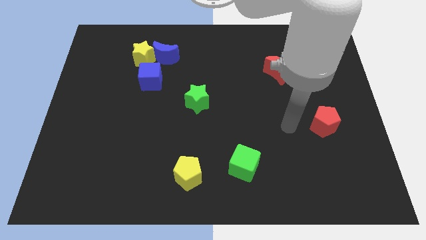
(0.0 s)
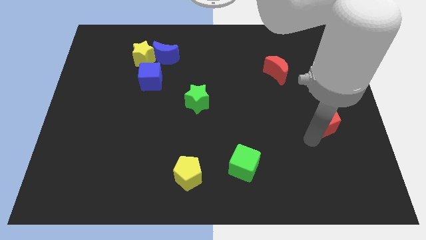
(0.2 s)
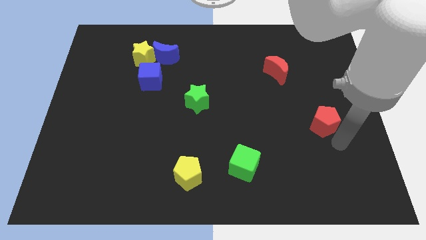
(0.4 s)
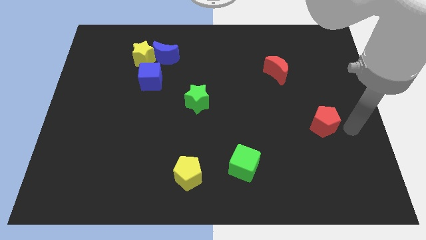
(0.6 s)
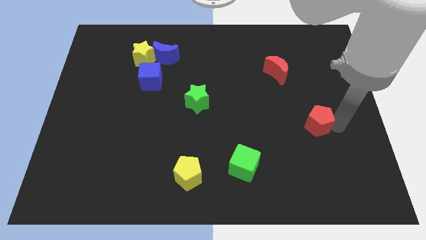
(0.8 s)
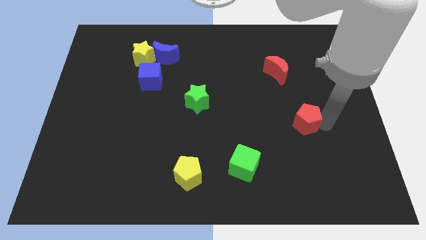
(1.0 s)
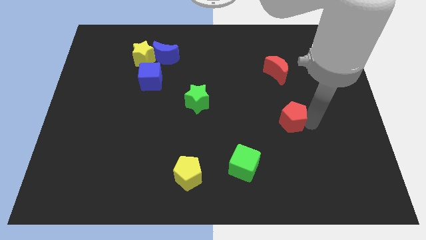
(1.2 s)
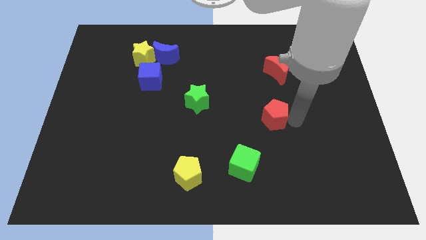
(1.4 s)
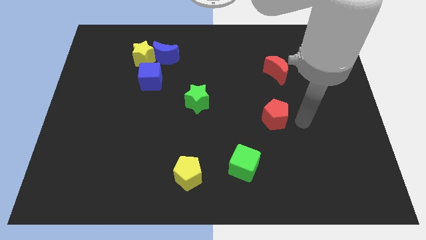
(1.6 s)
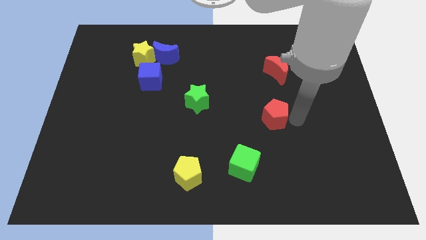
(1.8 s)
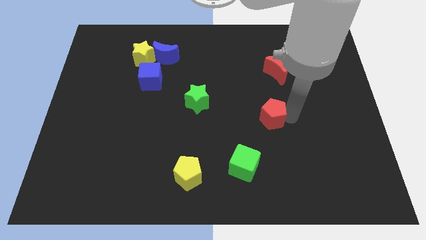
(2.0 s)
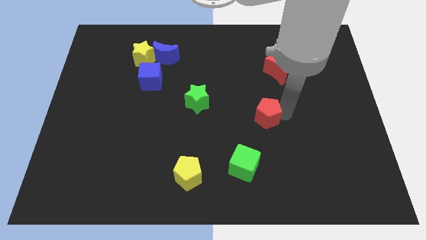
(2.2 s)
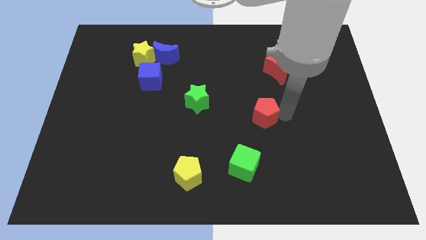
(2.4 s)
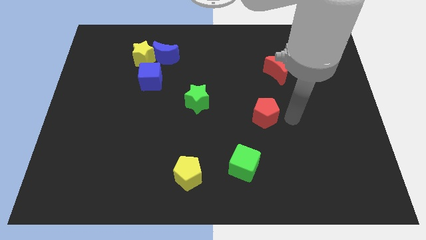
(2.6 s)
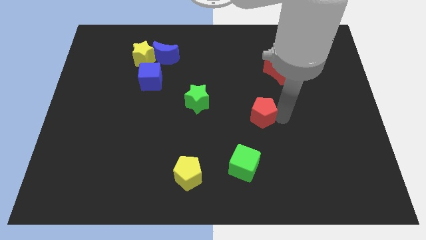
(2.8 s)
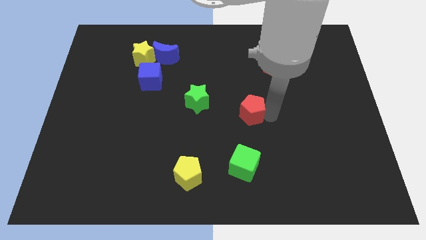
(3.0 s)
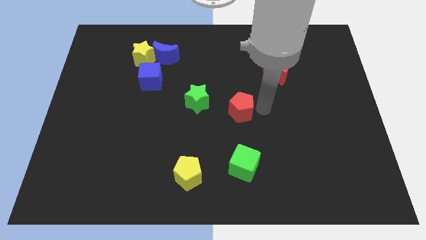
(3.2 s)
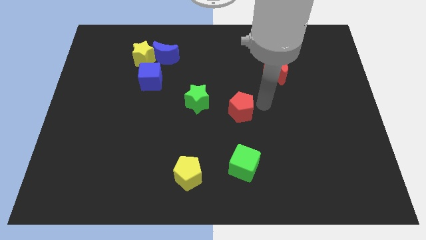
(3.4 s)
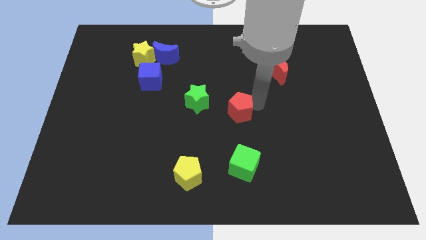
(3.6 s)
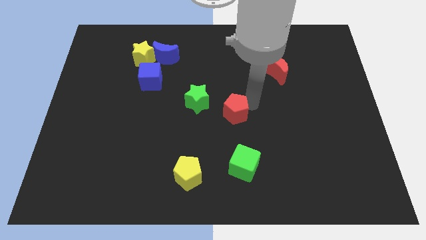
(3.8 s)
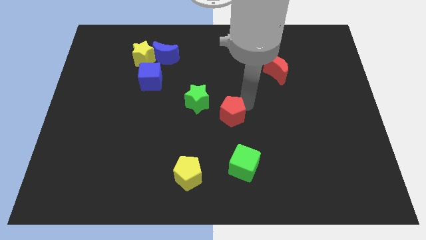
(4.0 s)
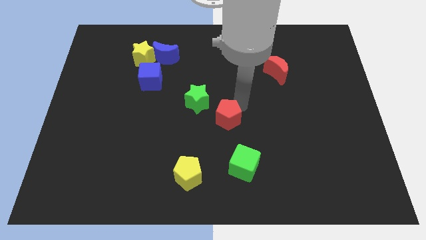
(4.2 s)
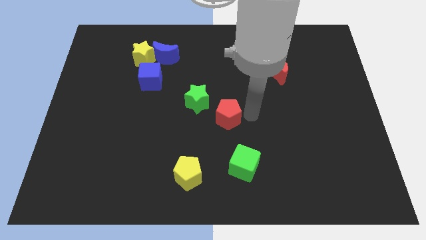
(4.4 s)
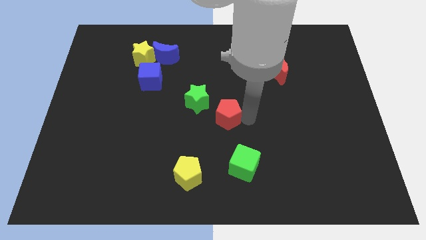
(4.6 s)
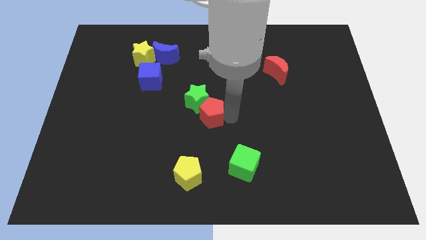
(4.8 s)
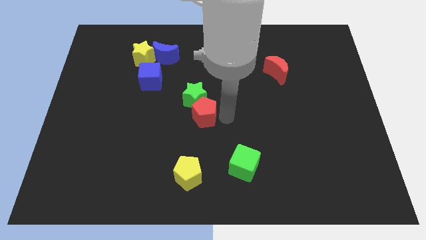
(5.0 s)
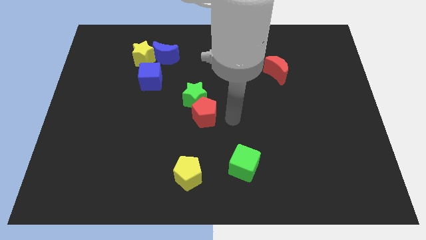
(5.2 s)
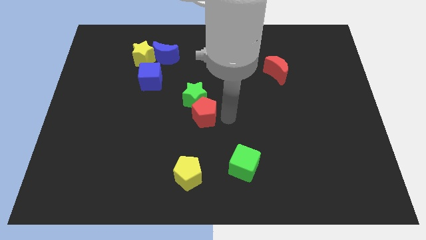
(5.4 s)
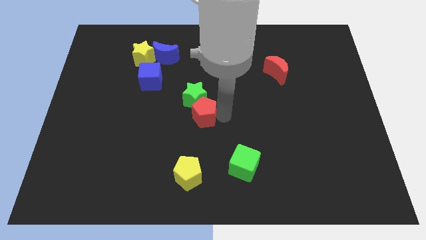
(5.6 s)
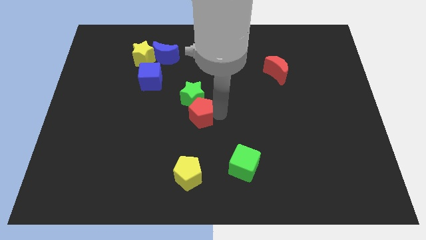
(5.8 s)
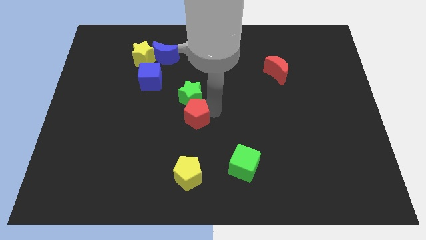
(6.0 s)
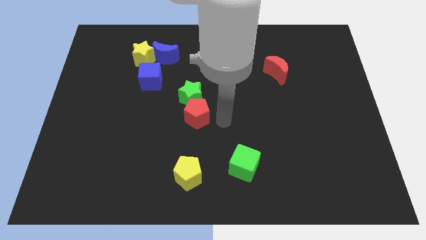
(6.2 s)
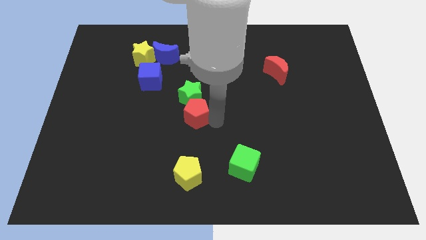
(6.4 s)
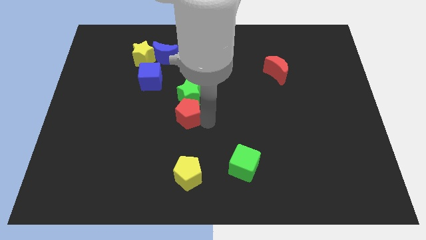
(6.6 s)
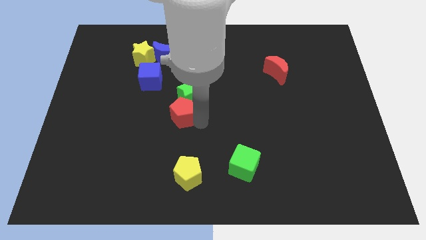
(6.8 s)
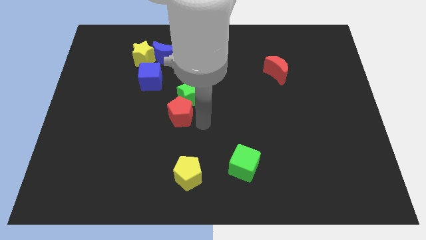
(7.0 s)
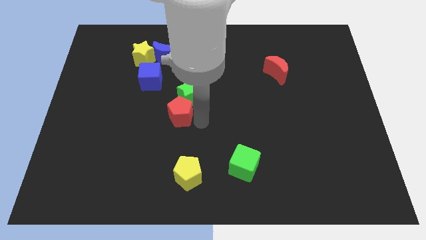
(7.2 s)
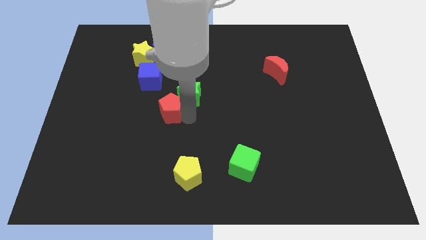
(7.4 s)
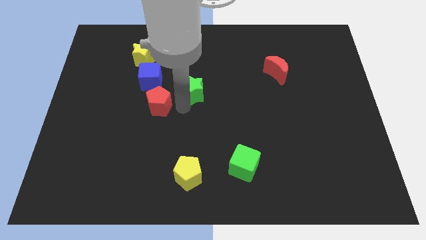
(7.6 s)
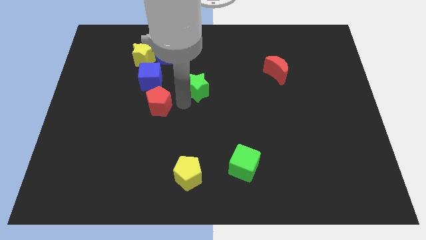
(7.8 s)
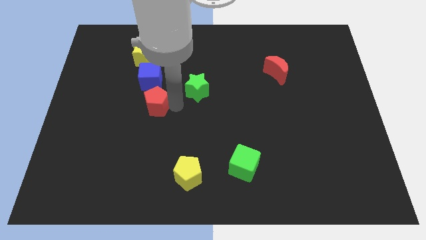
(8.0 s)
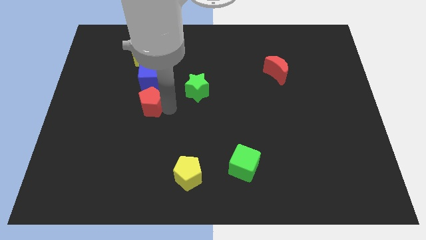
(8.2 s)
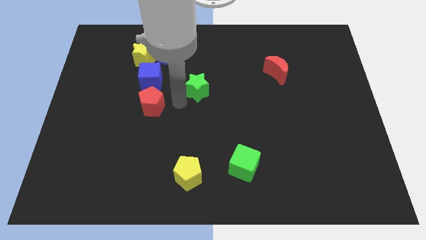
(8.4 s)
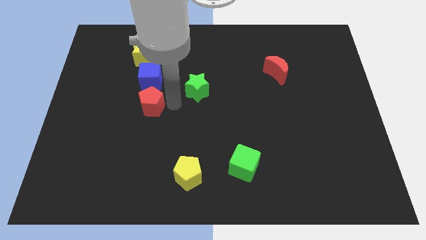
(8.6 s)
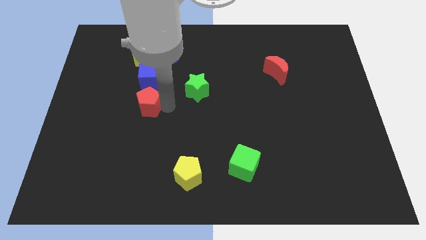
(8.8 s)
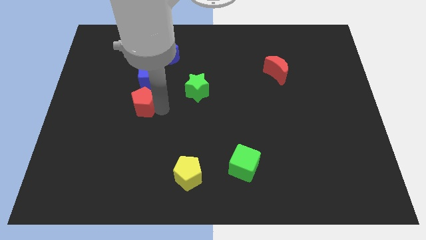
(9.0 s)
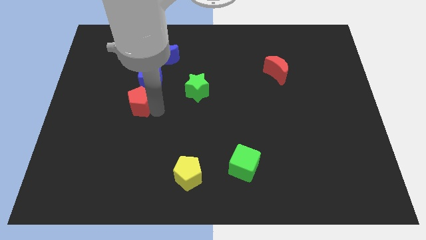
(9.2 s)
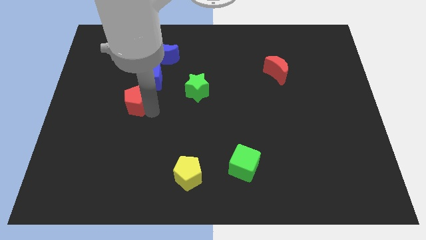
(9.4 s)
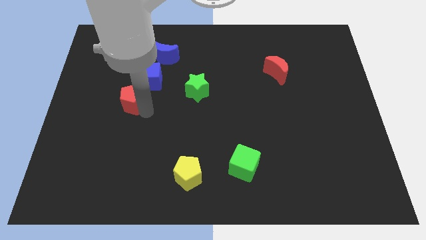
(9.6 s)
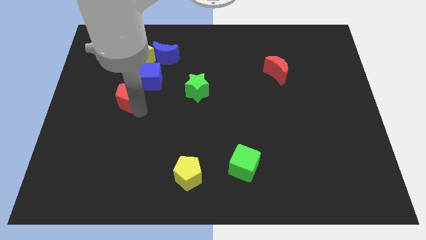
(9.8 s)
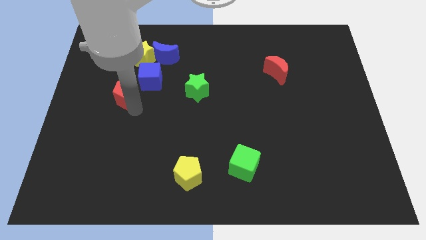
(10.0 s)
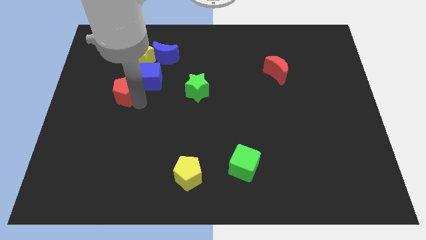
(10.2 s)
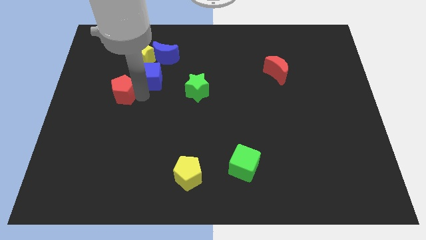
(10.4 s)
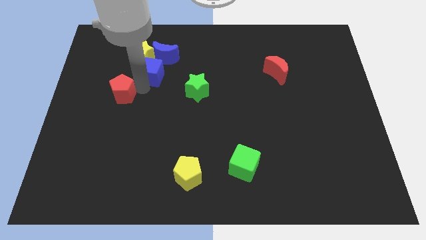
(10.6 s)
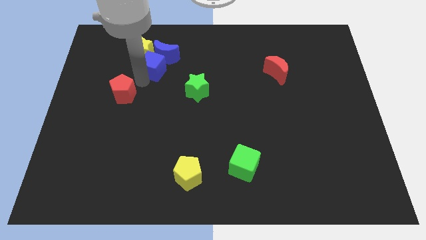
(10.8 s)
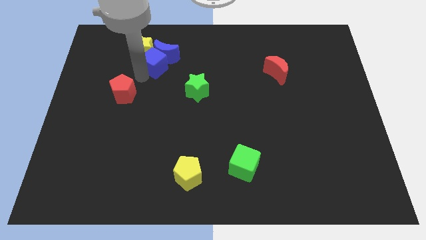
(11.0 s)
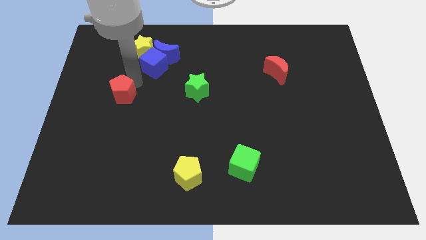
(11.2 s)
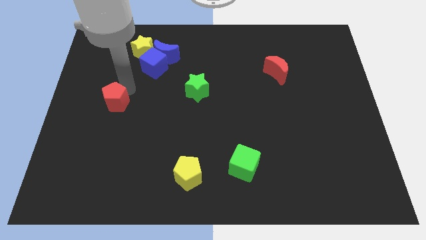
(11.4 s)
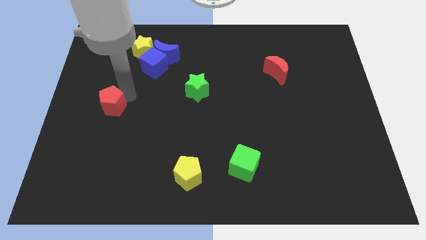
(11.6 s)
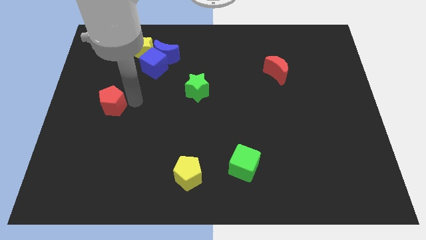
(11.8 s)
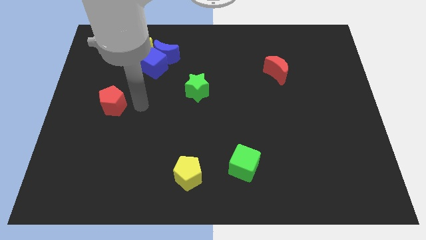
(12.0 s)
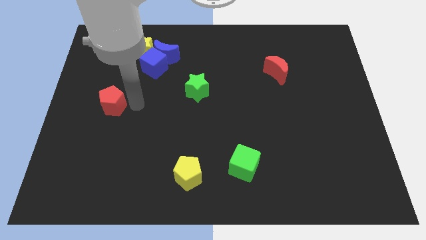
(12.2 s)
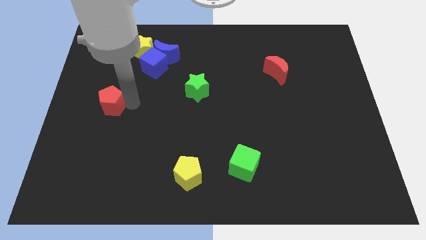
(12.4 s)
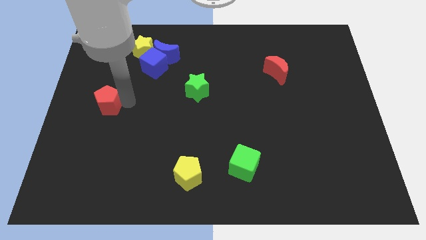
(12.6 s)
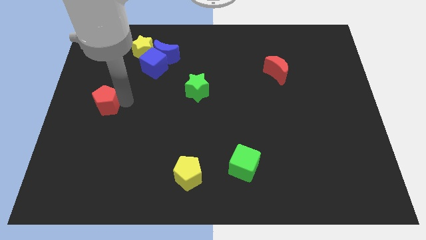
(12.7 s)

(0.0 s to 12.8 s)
push the red pentagon to the left side of the board
